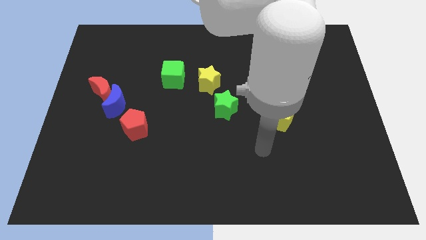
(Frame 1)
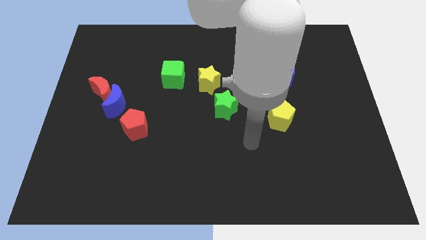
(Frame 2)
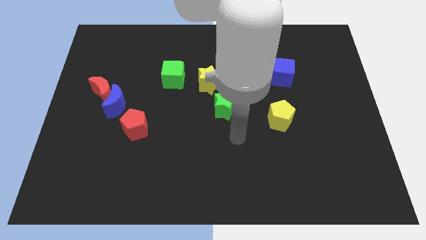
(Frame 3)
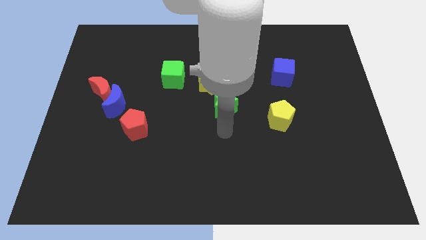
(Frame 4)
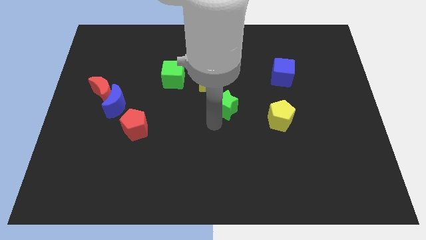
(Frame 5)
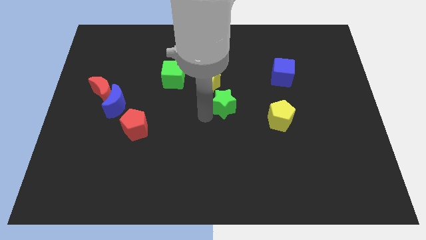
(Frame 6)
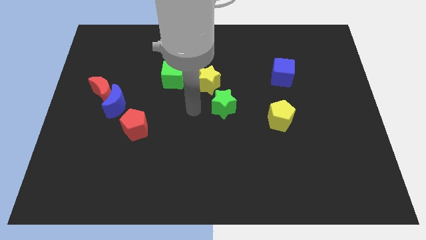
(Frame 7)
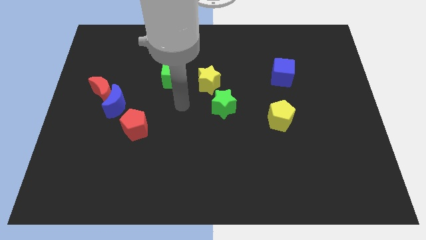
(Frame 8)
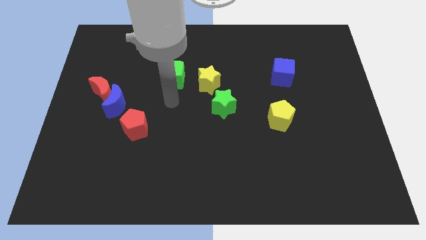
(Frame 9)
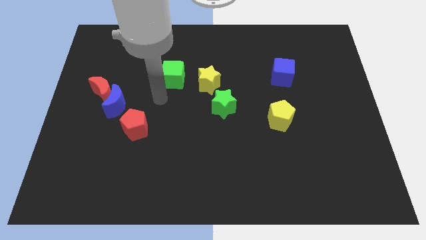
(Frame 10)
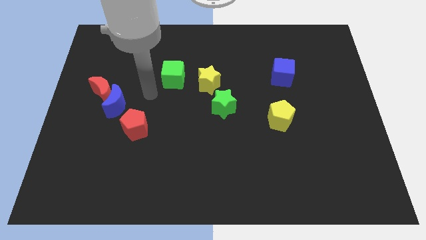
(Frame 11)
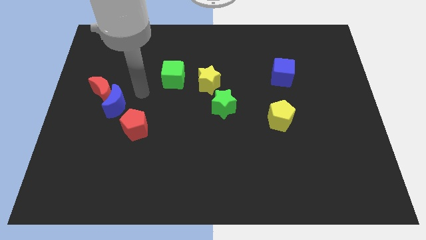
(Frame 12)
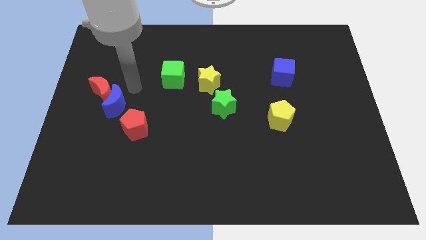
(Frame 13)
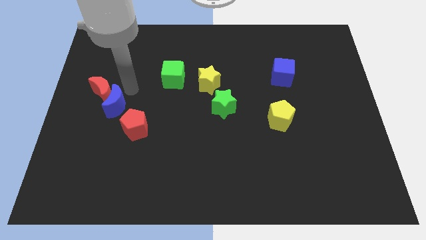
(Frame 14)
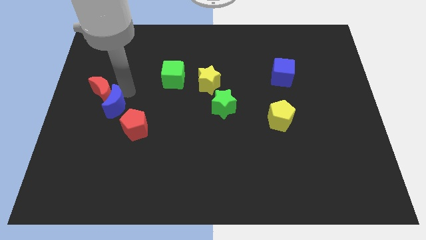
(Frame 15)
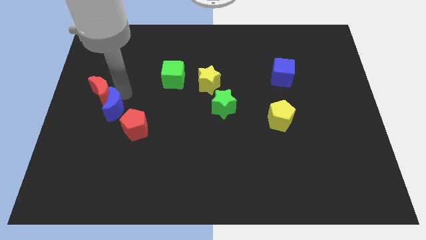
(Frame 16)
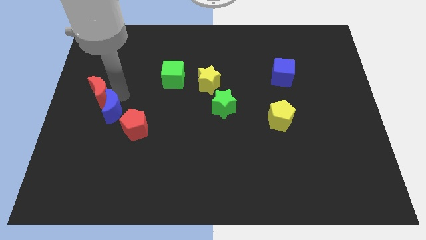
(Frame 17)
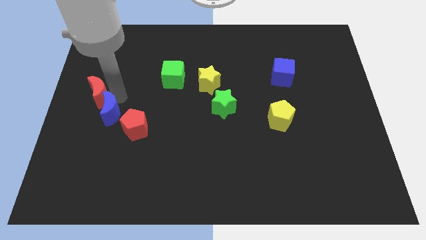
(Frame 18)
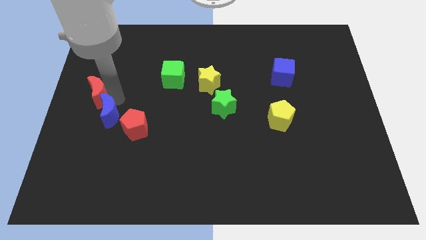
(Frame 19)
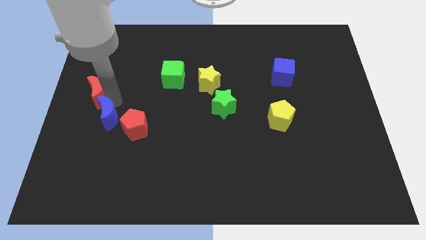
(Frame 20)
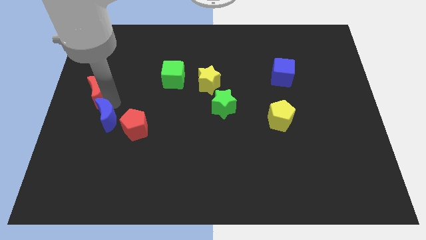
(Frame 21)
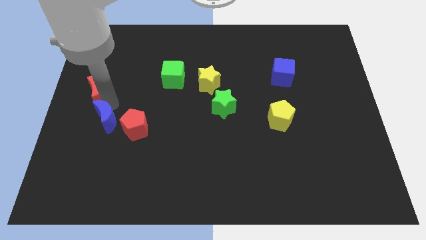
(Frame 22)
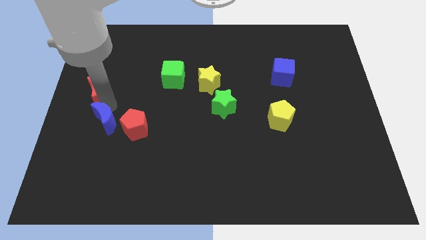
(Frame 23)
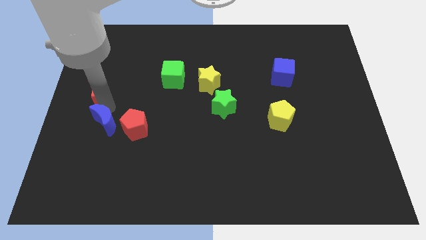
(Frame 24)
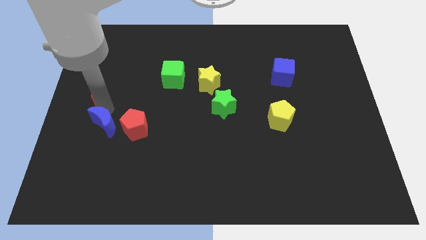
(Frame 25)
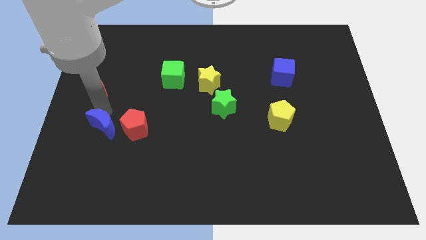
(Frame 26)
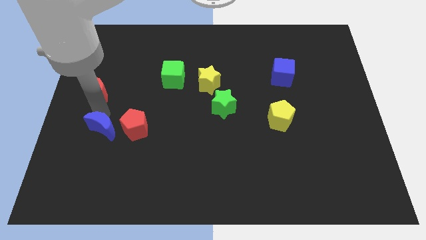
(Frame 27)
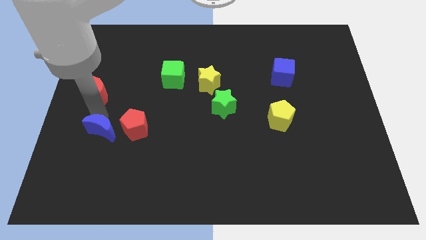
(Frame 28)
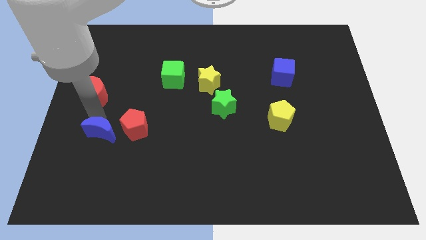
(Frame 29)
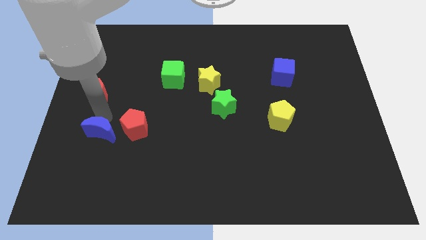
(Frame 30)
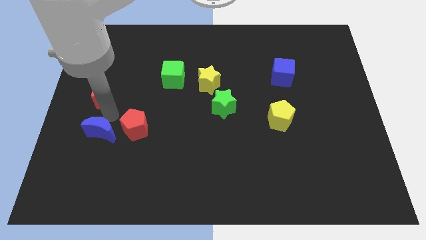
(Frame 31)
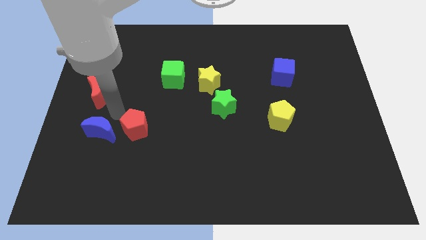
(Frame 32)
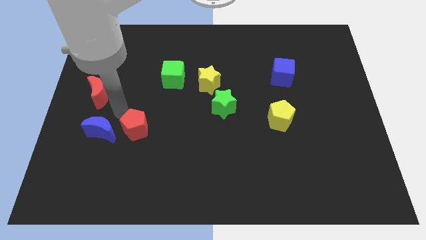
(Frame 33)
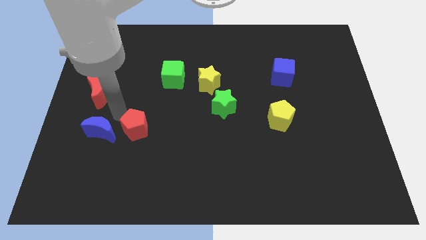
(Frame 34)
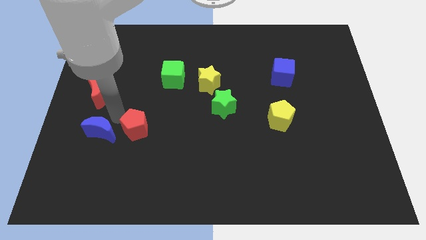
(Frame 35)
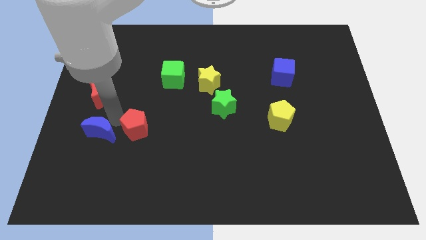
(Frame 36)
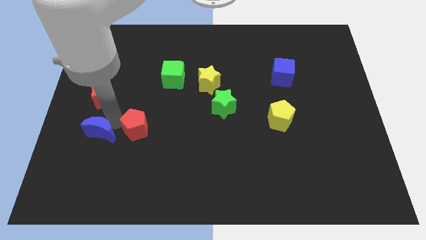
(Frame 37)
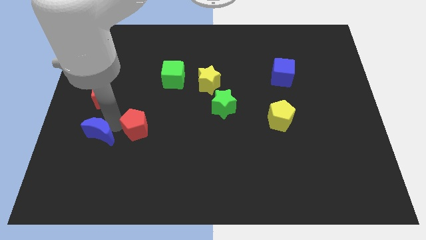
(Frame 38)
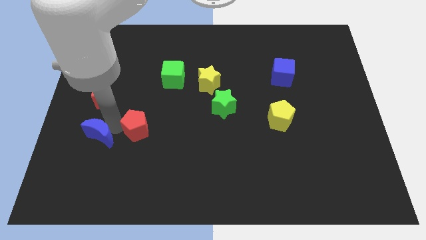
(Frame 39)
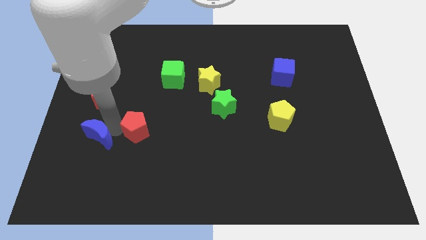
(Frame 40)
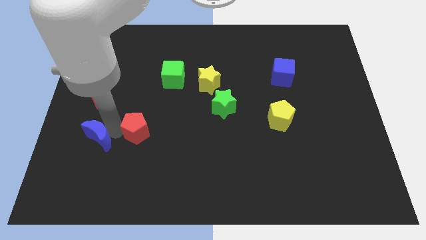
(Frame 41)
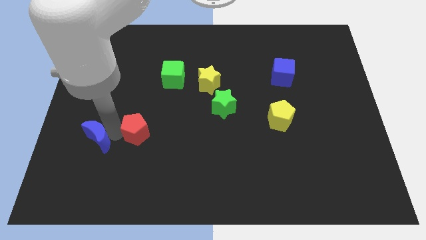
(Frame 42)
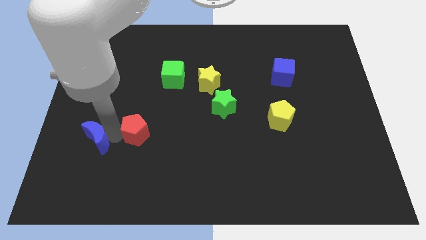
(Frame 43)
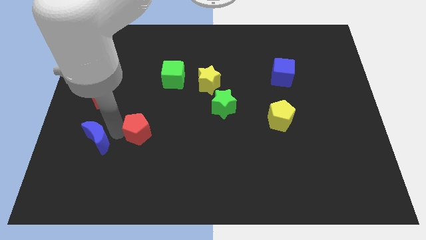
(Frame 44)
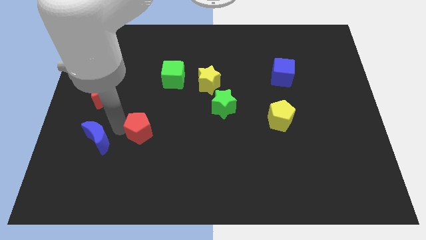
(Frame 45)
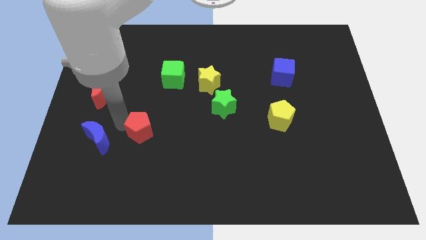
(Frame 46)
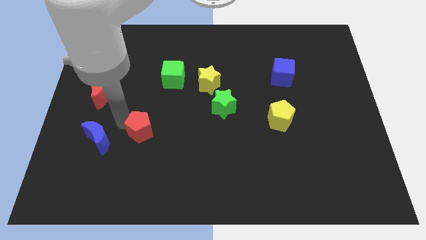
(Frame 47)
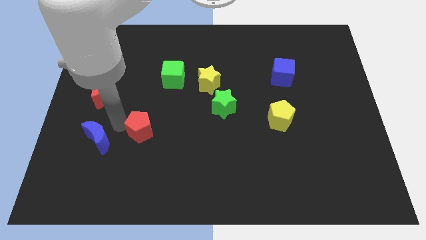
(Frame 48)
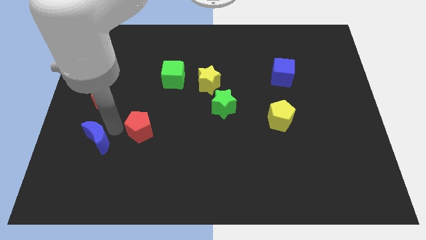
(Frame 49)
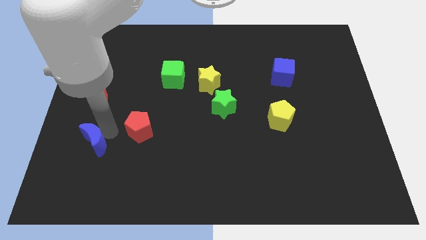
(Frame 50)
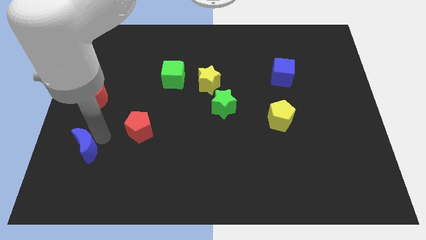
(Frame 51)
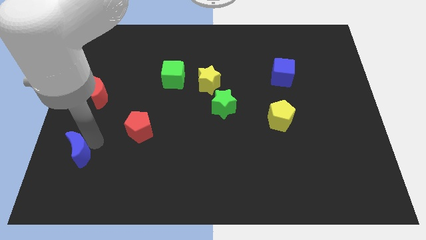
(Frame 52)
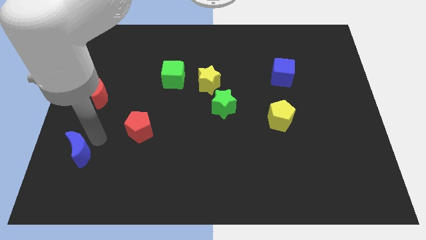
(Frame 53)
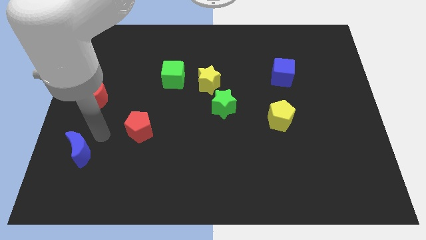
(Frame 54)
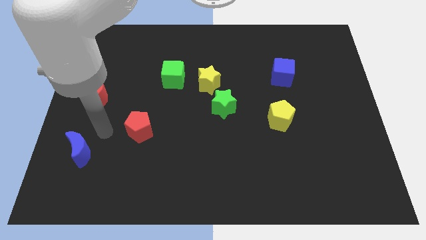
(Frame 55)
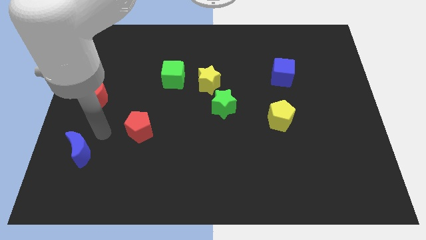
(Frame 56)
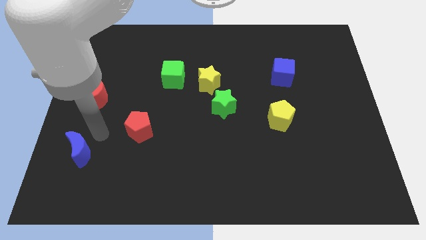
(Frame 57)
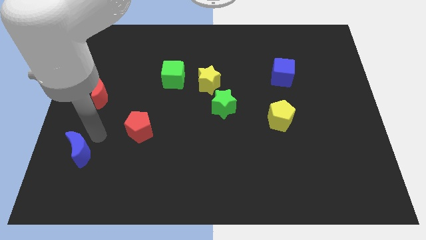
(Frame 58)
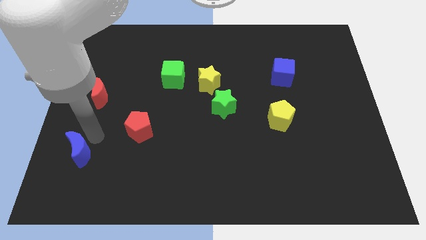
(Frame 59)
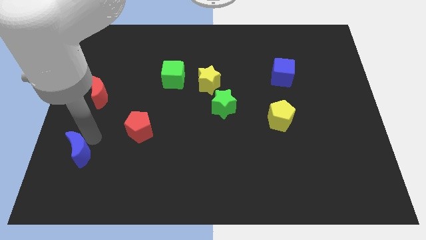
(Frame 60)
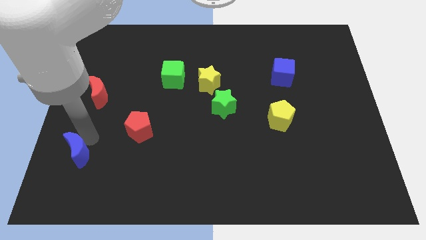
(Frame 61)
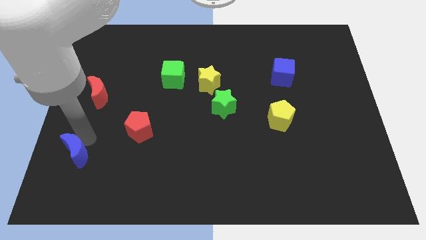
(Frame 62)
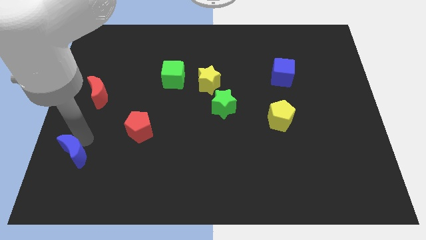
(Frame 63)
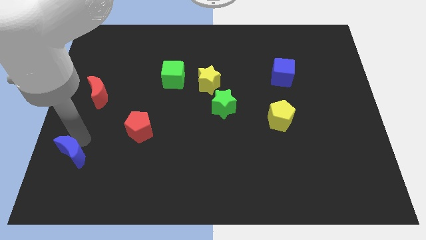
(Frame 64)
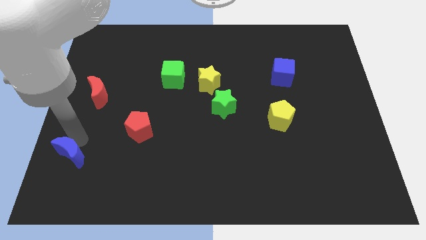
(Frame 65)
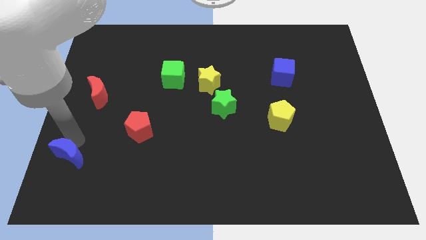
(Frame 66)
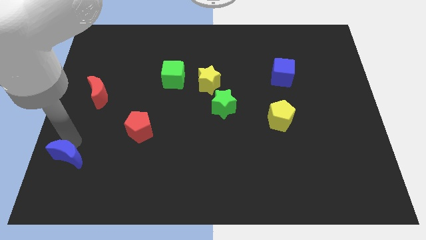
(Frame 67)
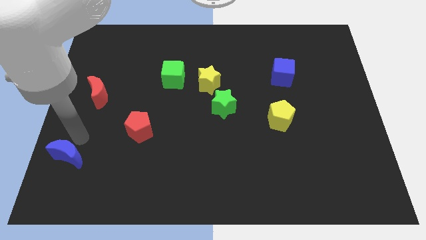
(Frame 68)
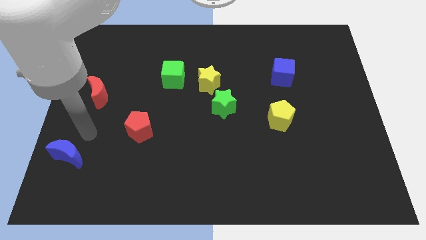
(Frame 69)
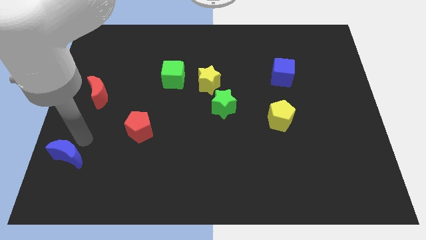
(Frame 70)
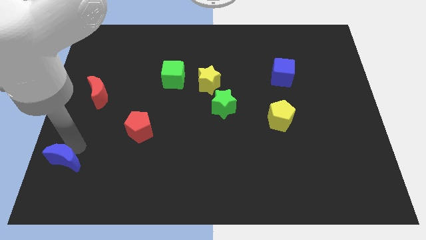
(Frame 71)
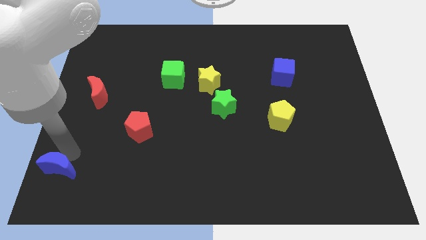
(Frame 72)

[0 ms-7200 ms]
push the blue moon to the bottom left of the board

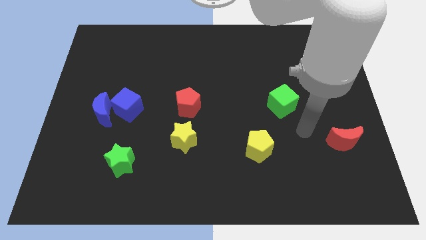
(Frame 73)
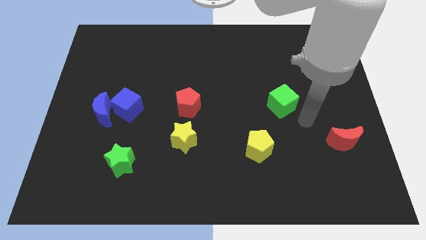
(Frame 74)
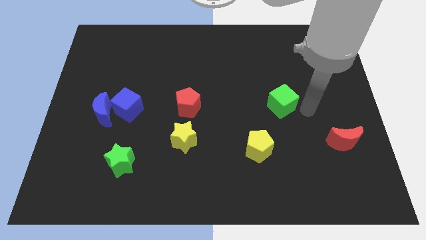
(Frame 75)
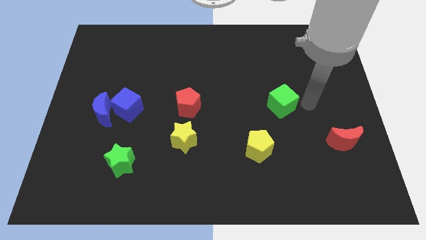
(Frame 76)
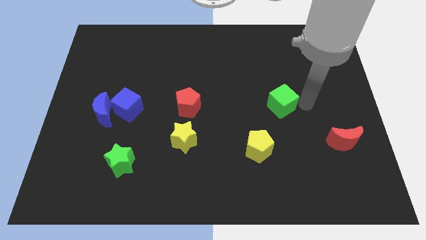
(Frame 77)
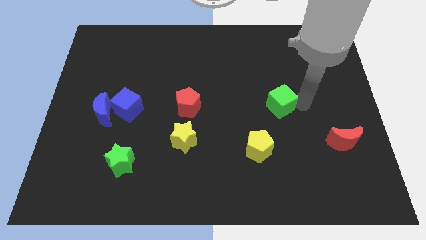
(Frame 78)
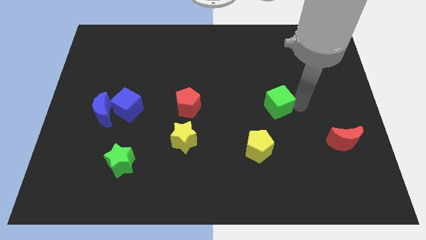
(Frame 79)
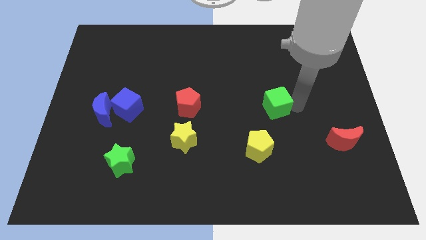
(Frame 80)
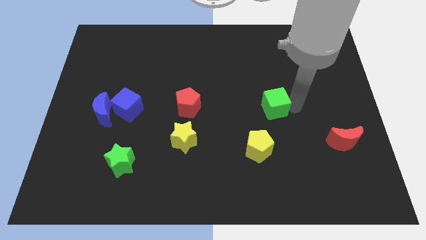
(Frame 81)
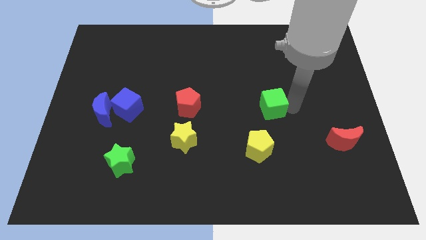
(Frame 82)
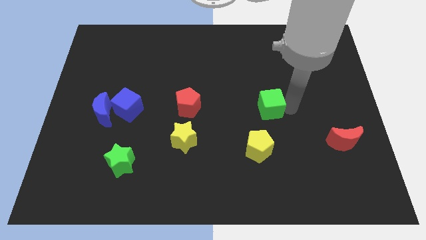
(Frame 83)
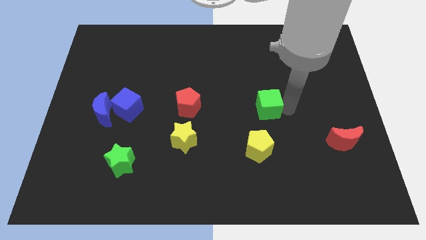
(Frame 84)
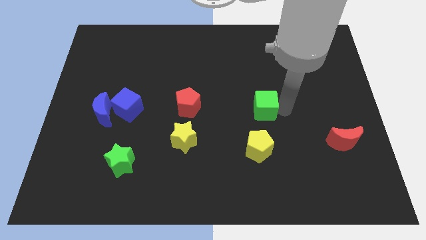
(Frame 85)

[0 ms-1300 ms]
put the green cube to the middle of the board
